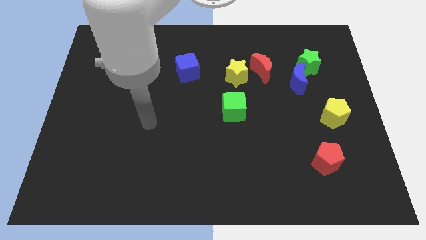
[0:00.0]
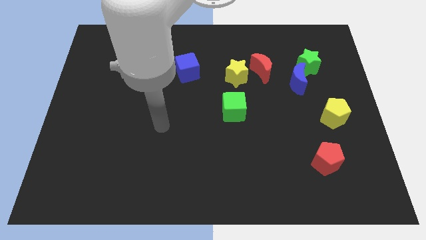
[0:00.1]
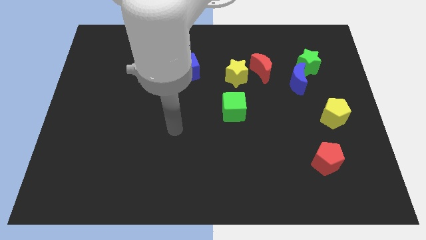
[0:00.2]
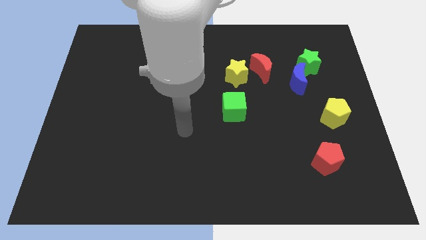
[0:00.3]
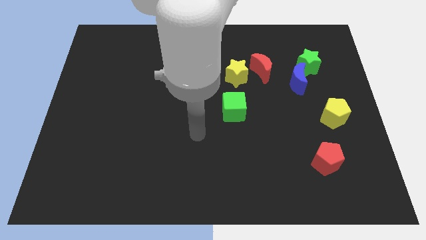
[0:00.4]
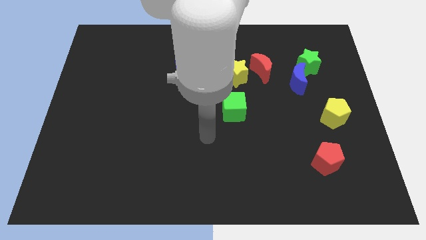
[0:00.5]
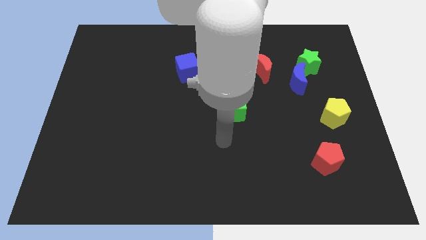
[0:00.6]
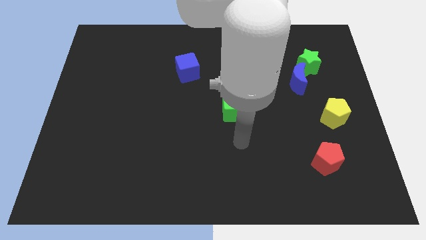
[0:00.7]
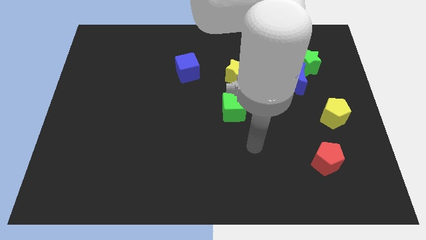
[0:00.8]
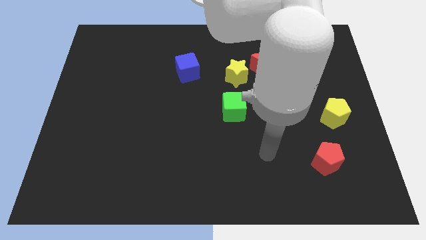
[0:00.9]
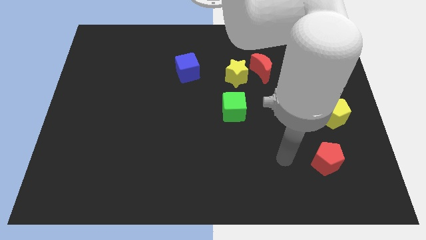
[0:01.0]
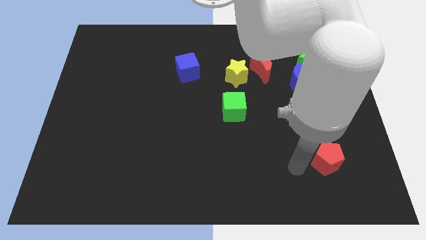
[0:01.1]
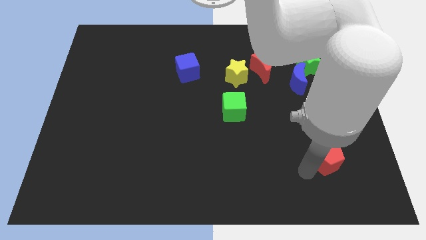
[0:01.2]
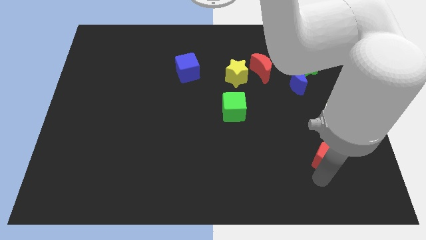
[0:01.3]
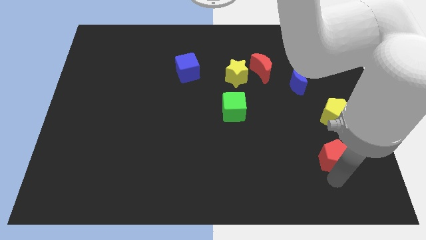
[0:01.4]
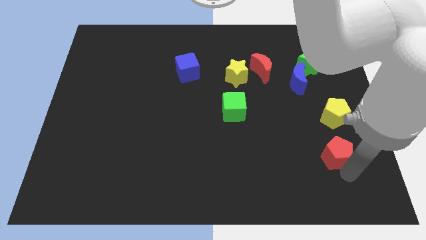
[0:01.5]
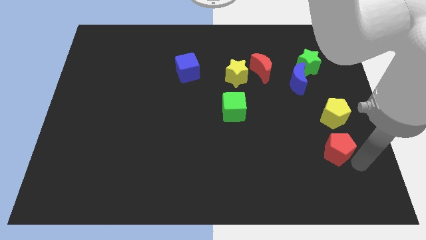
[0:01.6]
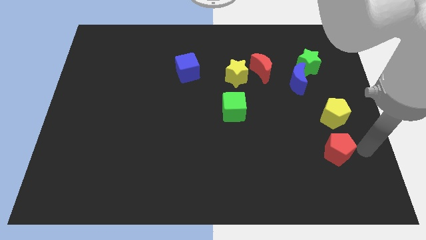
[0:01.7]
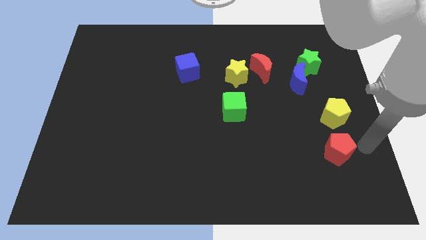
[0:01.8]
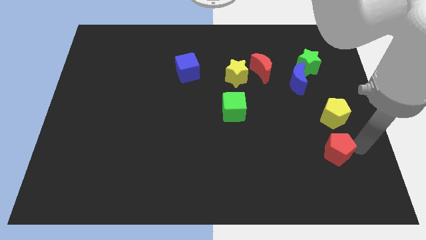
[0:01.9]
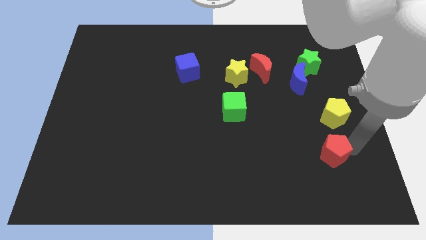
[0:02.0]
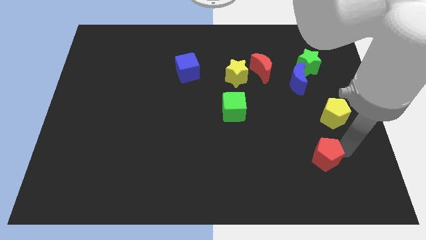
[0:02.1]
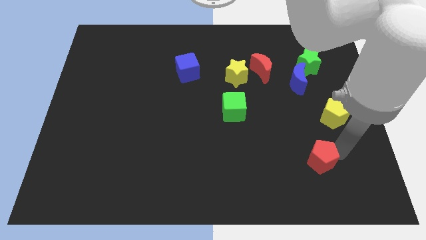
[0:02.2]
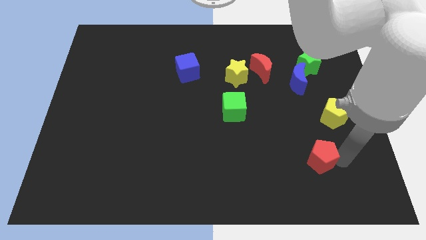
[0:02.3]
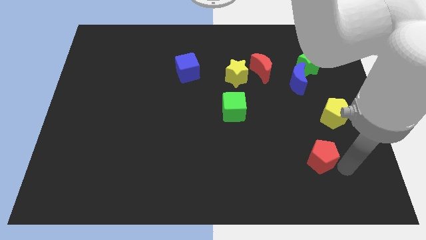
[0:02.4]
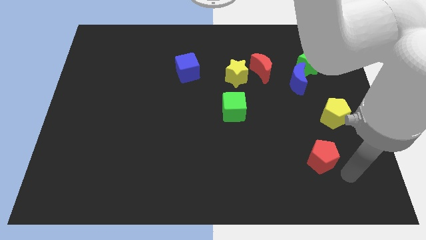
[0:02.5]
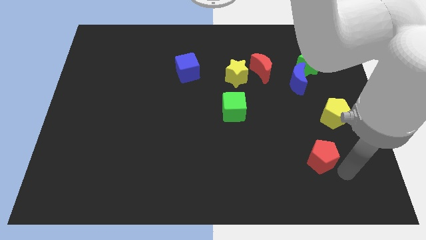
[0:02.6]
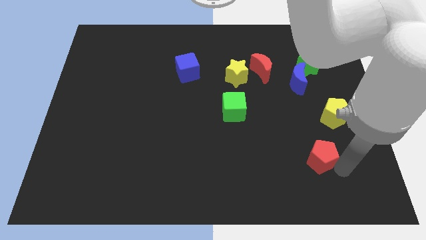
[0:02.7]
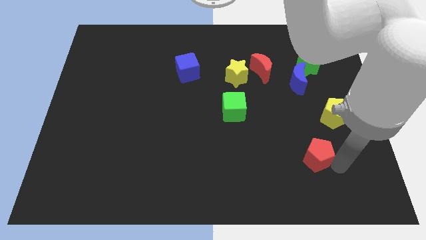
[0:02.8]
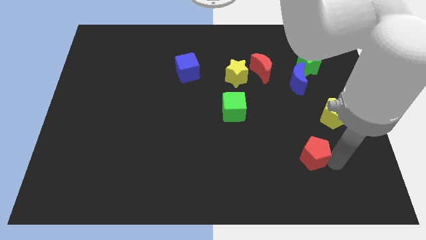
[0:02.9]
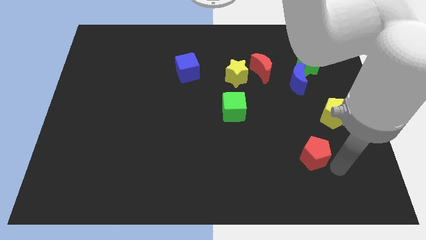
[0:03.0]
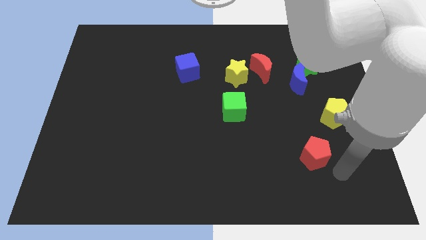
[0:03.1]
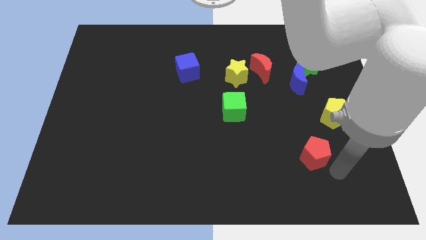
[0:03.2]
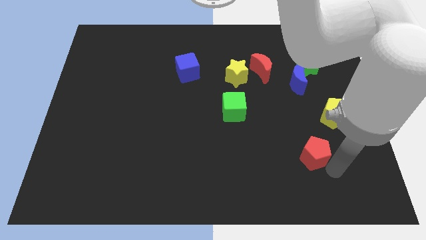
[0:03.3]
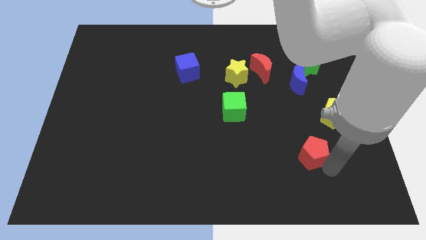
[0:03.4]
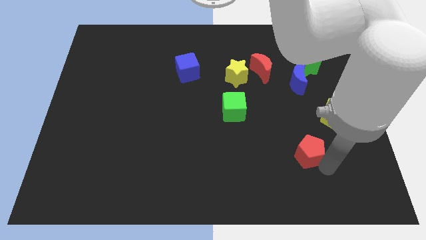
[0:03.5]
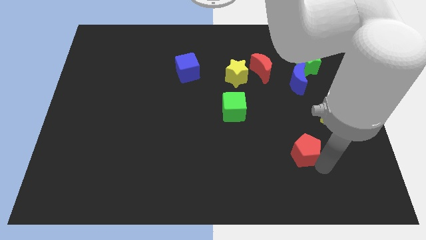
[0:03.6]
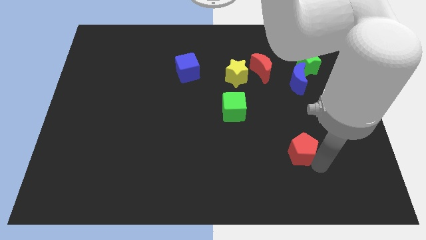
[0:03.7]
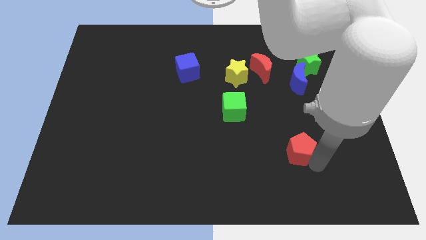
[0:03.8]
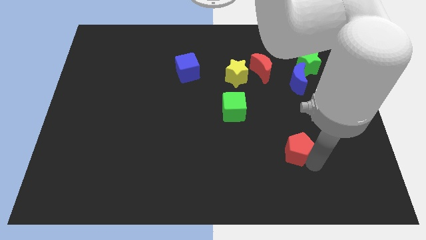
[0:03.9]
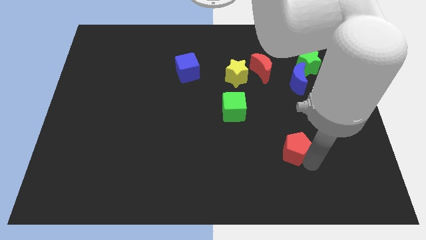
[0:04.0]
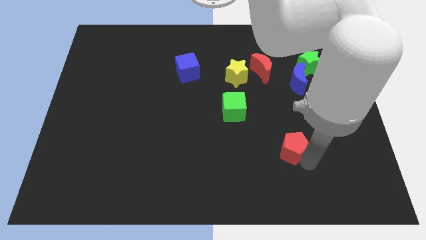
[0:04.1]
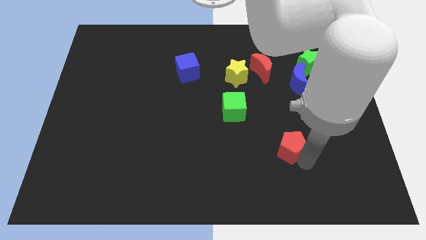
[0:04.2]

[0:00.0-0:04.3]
slide the red pentagon upwards and then to the left somewhat

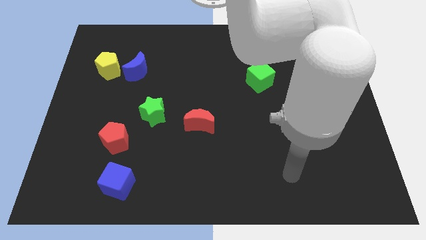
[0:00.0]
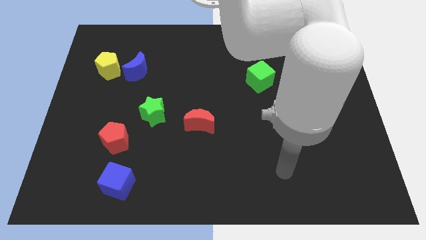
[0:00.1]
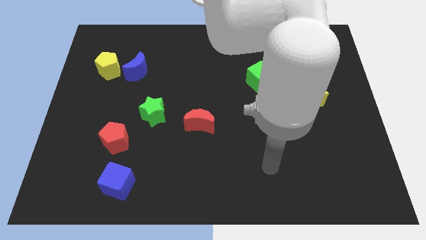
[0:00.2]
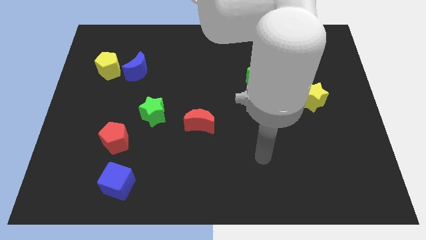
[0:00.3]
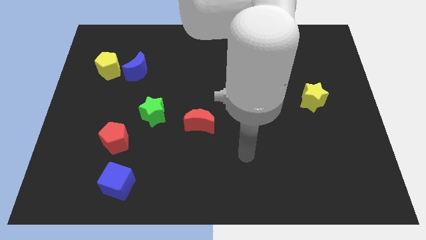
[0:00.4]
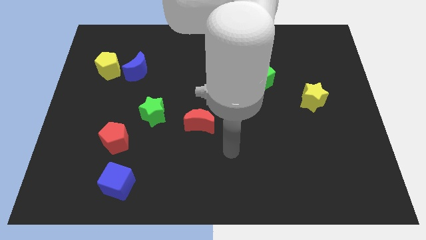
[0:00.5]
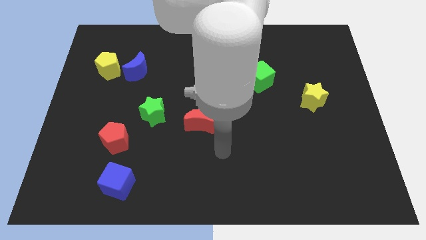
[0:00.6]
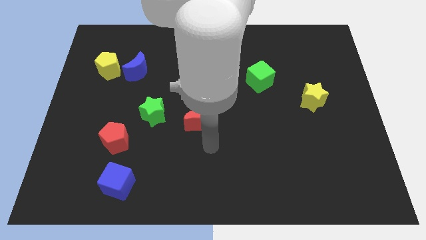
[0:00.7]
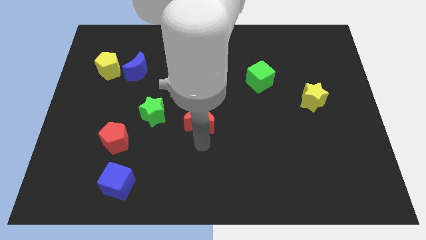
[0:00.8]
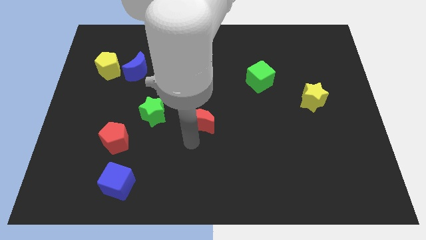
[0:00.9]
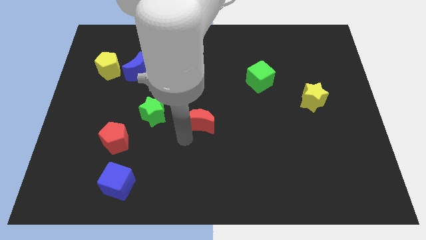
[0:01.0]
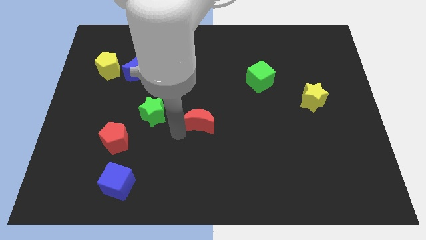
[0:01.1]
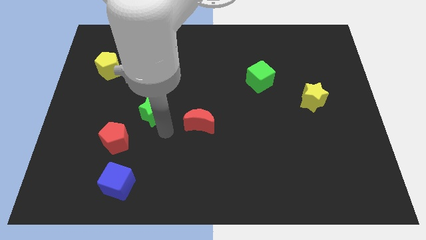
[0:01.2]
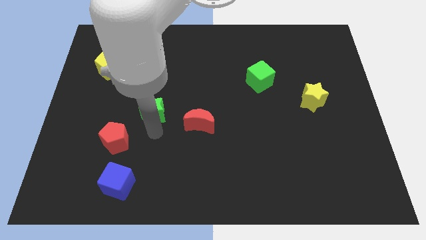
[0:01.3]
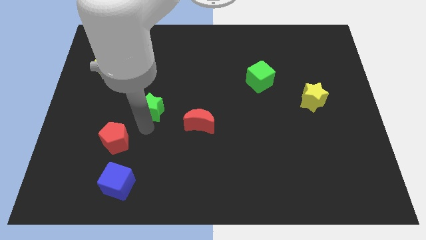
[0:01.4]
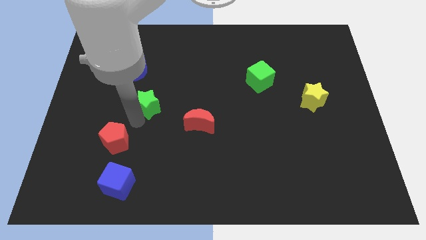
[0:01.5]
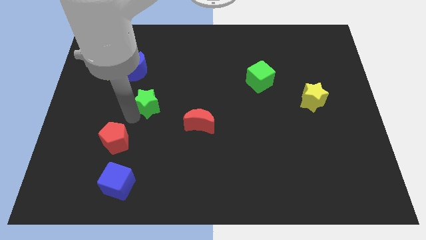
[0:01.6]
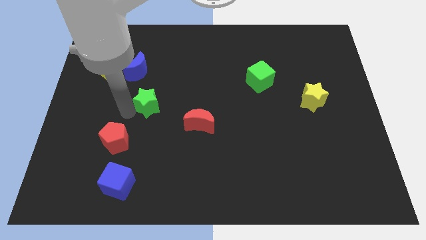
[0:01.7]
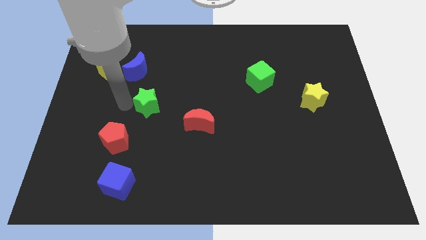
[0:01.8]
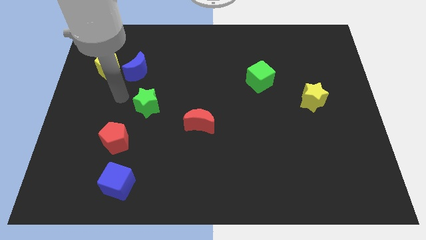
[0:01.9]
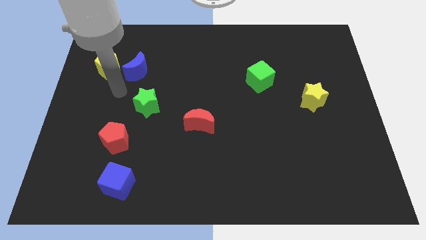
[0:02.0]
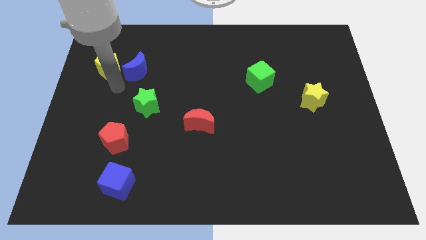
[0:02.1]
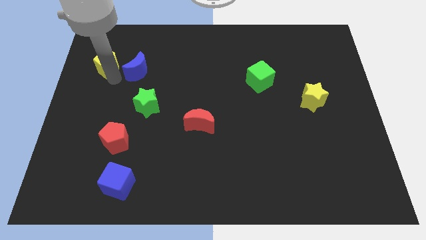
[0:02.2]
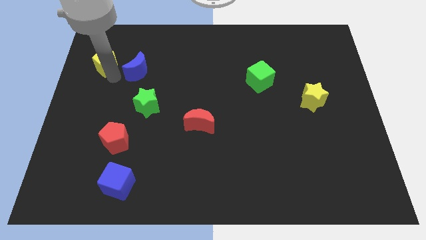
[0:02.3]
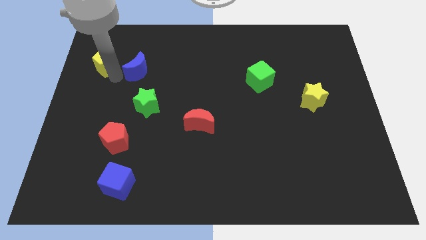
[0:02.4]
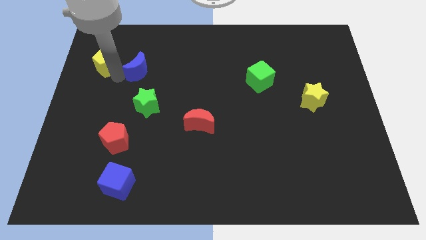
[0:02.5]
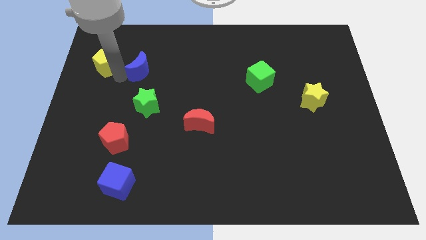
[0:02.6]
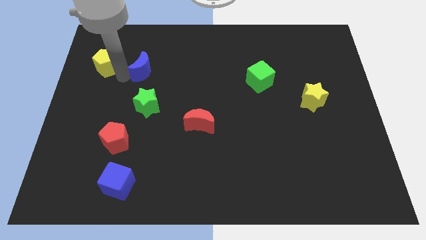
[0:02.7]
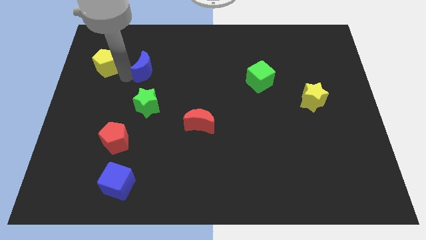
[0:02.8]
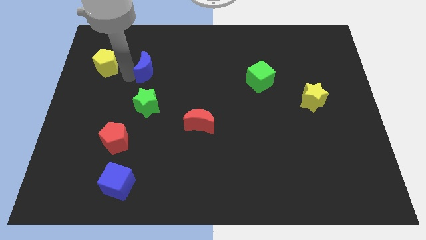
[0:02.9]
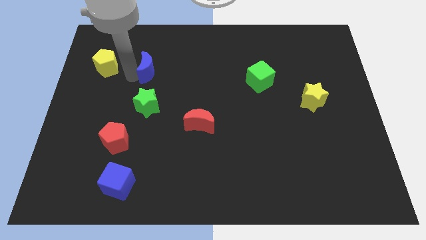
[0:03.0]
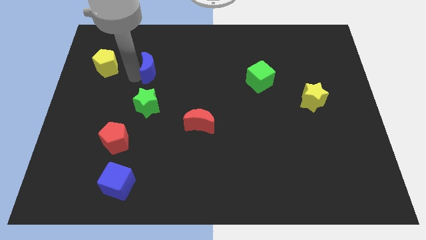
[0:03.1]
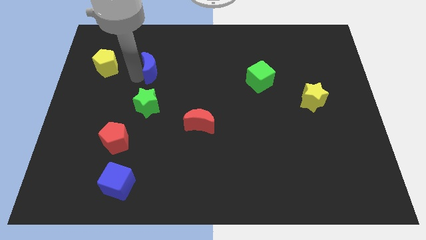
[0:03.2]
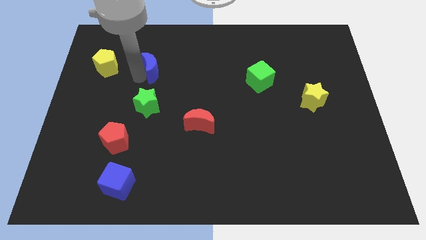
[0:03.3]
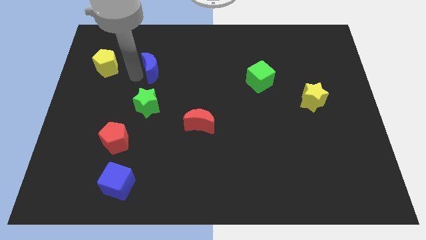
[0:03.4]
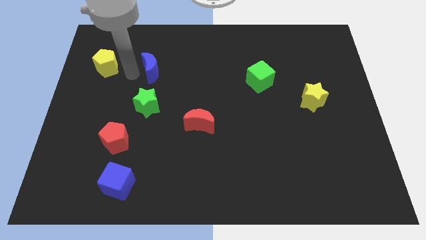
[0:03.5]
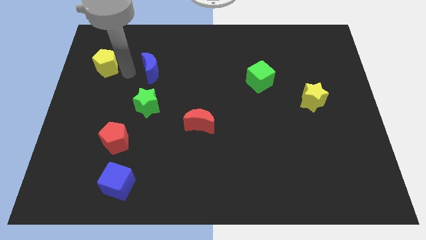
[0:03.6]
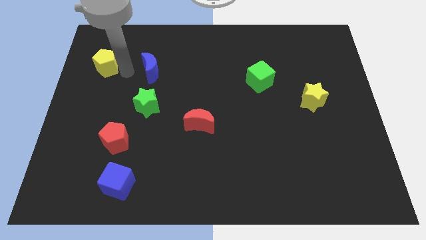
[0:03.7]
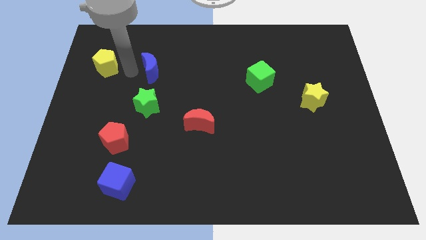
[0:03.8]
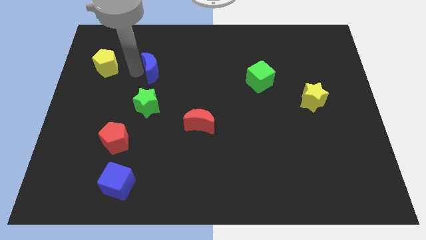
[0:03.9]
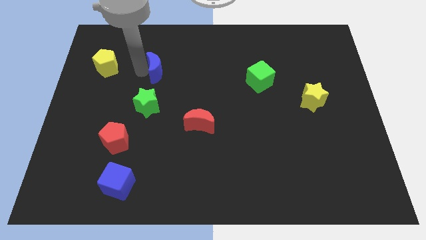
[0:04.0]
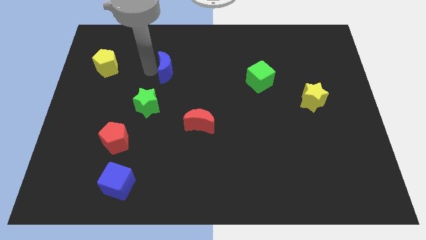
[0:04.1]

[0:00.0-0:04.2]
slightly push the blue moon right
